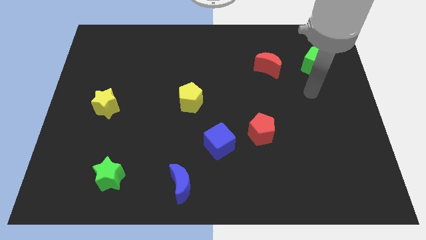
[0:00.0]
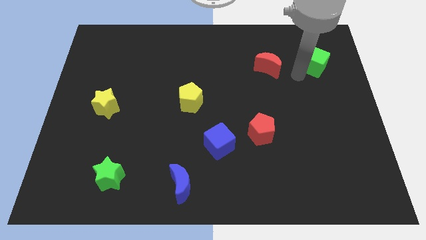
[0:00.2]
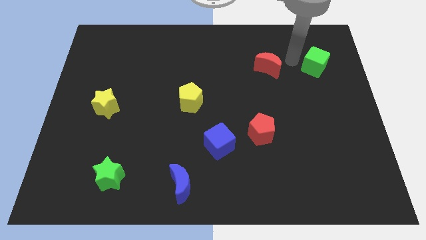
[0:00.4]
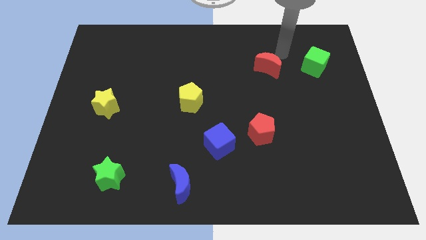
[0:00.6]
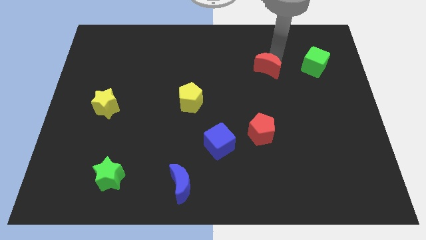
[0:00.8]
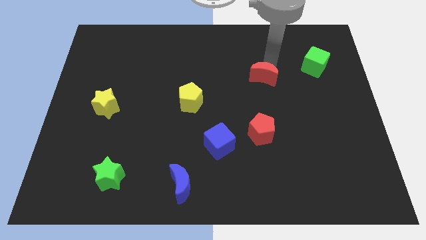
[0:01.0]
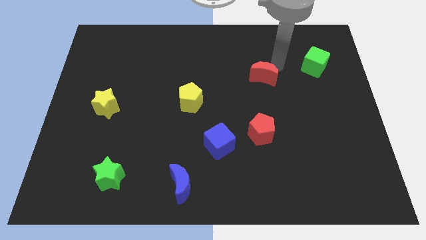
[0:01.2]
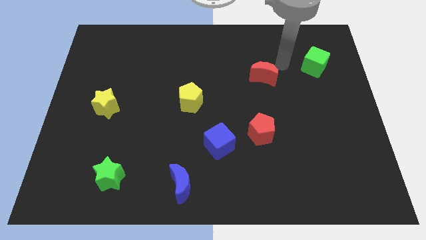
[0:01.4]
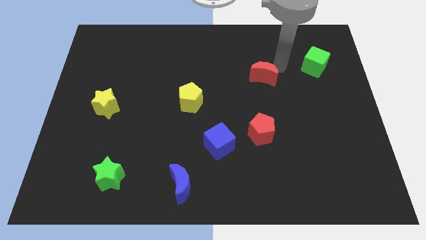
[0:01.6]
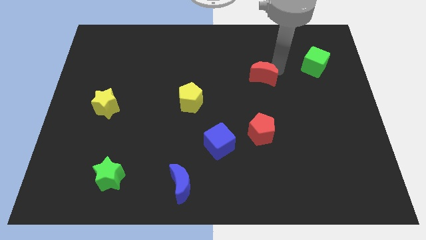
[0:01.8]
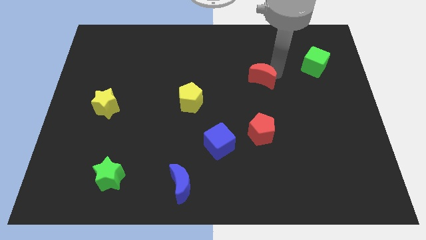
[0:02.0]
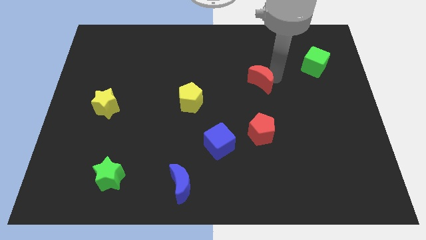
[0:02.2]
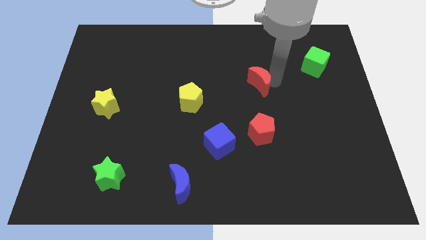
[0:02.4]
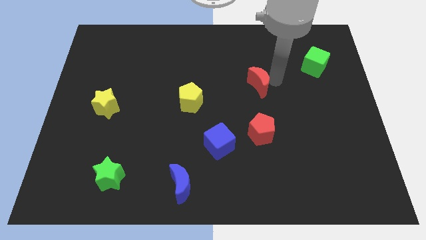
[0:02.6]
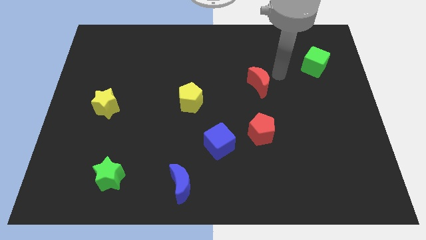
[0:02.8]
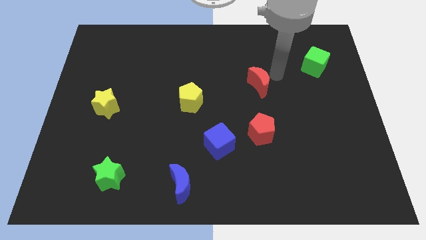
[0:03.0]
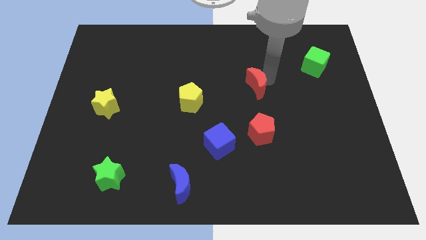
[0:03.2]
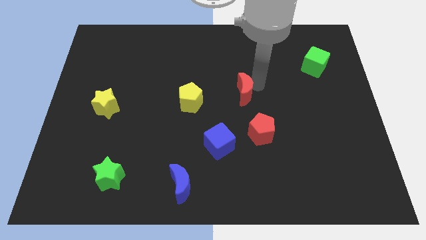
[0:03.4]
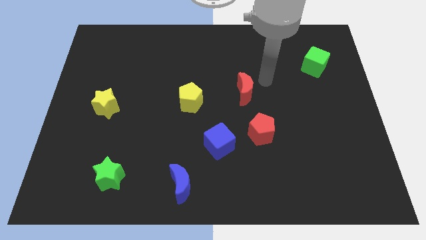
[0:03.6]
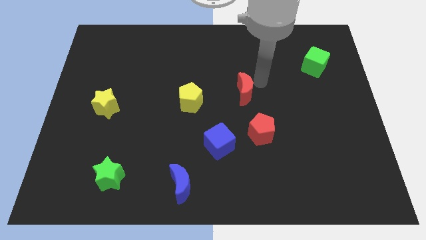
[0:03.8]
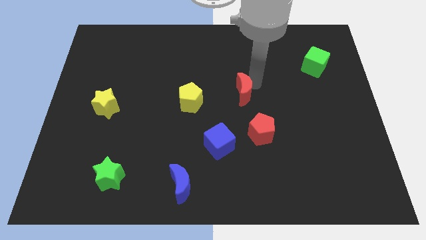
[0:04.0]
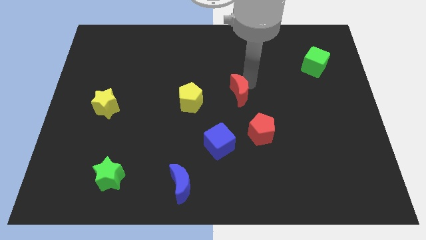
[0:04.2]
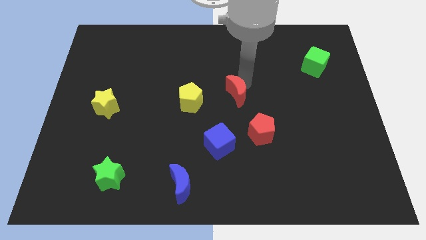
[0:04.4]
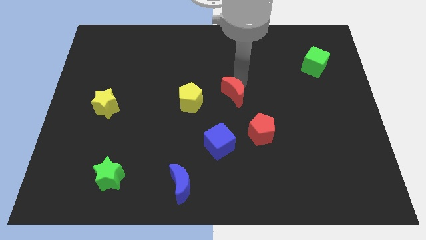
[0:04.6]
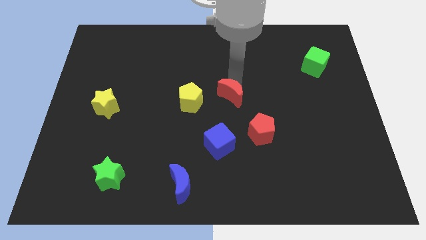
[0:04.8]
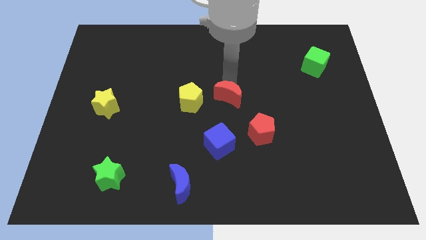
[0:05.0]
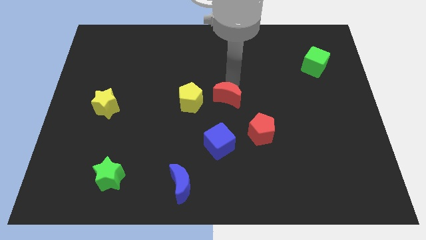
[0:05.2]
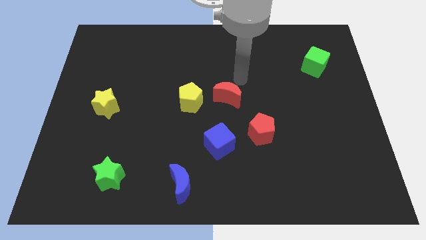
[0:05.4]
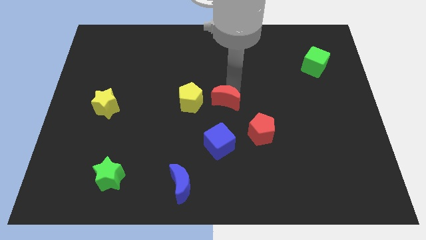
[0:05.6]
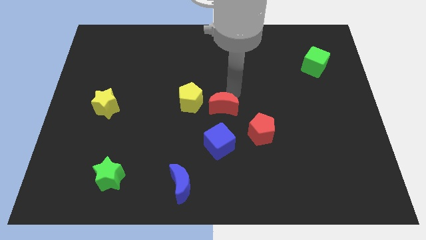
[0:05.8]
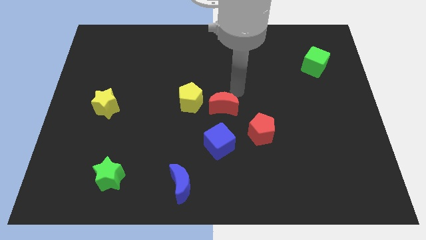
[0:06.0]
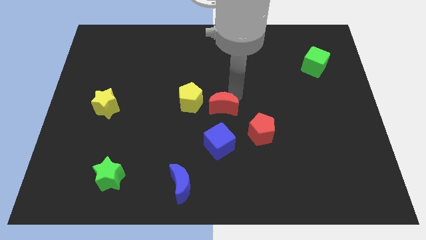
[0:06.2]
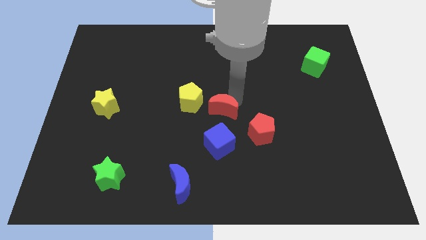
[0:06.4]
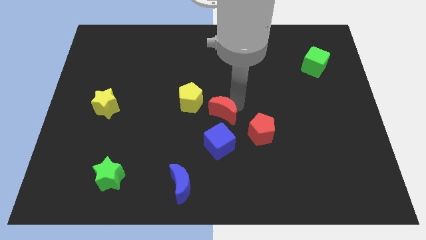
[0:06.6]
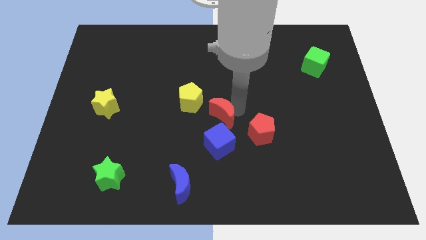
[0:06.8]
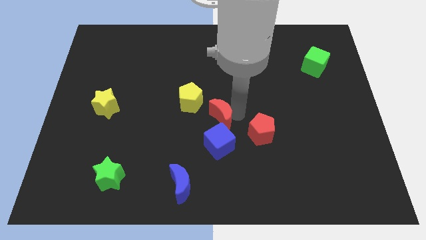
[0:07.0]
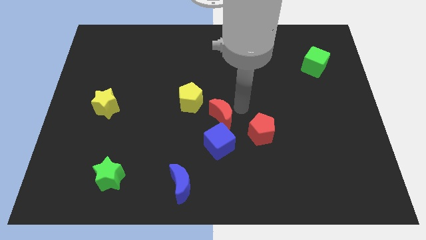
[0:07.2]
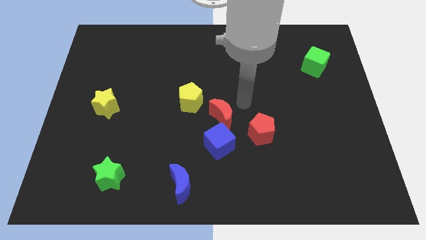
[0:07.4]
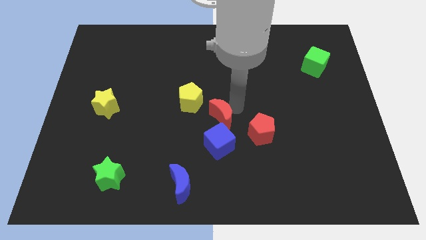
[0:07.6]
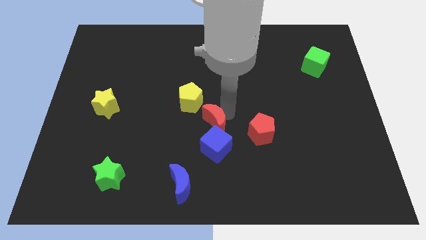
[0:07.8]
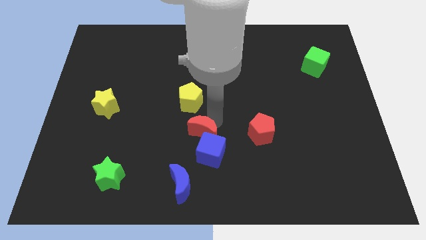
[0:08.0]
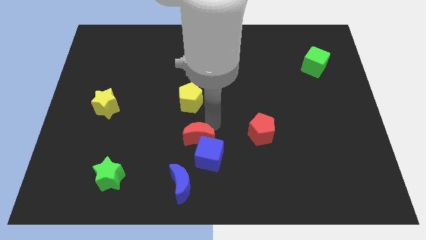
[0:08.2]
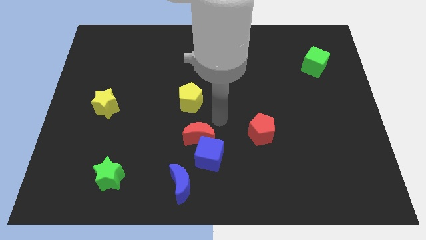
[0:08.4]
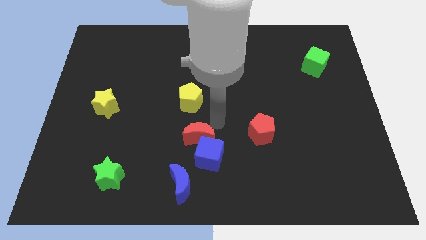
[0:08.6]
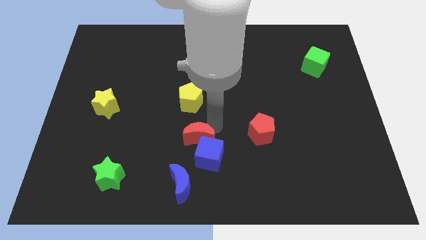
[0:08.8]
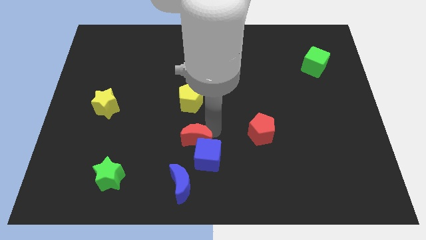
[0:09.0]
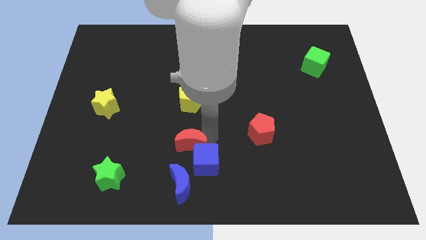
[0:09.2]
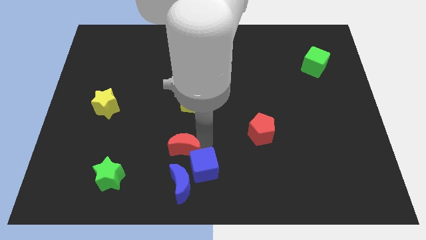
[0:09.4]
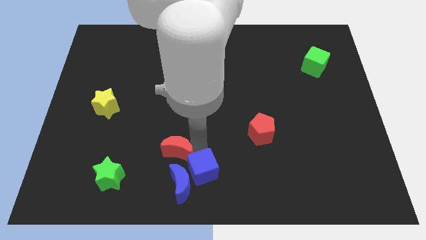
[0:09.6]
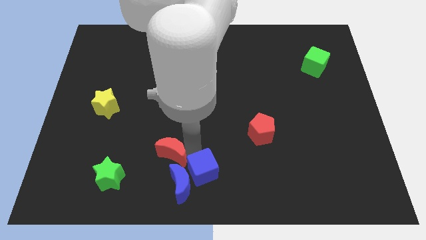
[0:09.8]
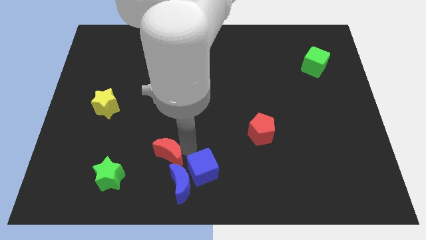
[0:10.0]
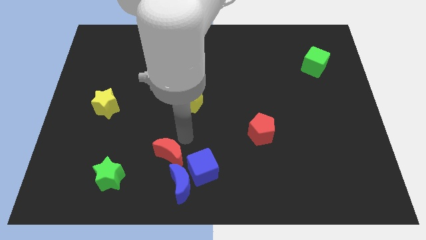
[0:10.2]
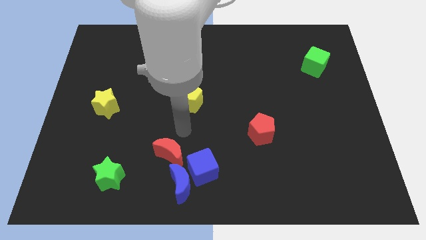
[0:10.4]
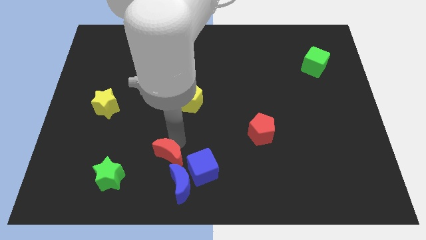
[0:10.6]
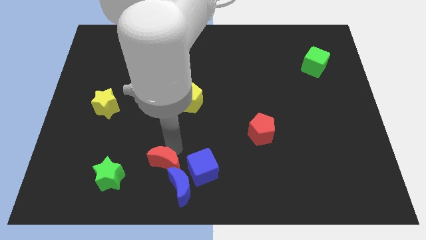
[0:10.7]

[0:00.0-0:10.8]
slide the red moon to the right of the green star

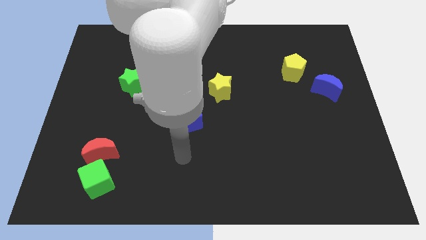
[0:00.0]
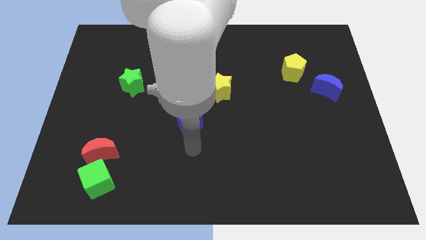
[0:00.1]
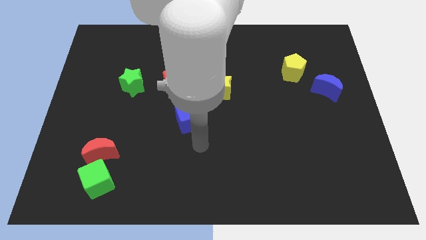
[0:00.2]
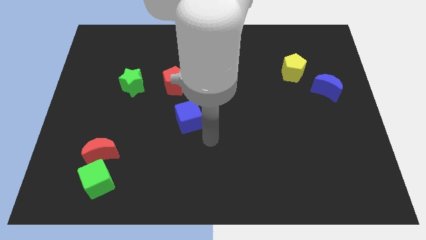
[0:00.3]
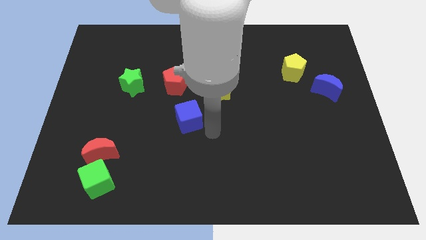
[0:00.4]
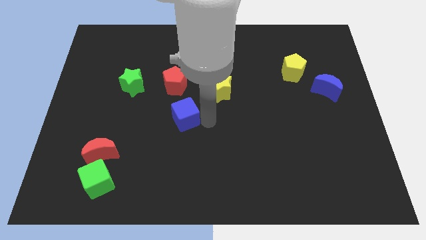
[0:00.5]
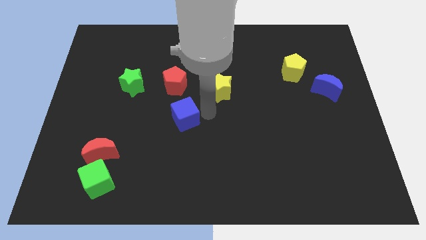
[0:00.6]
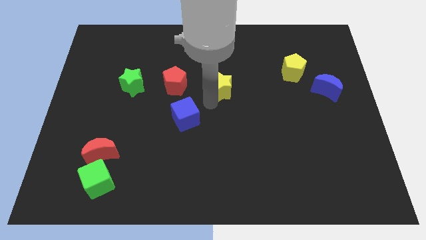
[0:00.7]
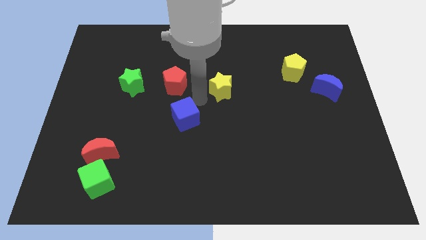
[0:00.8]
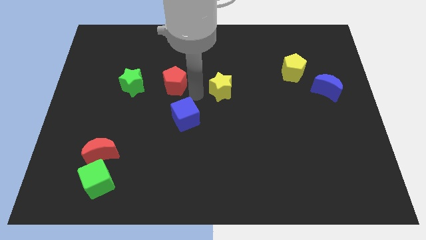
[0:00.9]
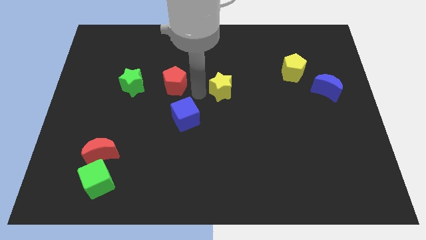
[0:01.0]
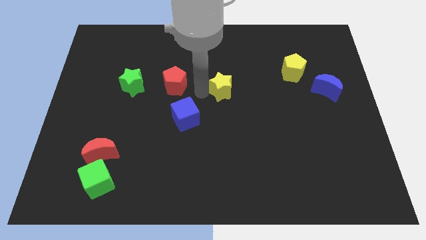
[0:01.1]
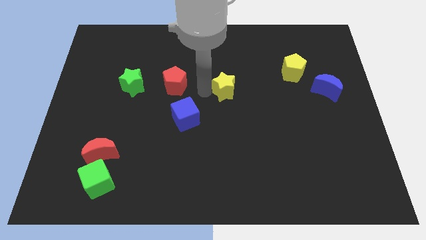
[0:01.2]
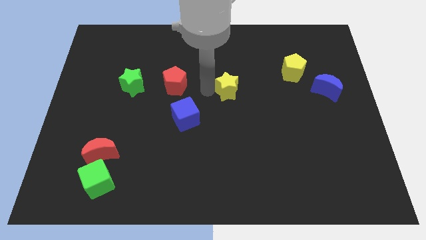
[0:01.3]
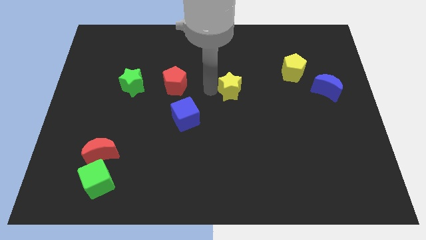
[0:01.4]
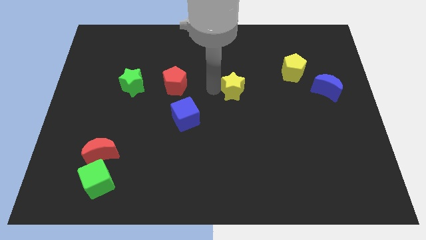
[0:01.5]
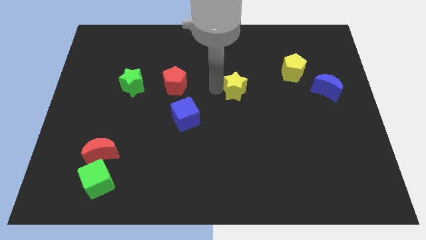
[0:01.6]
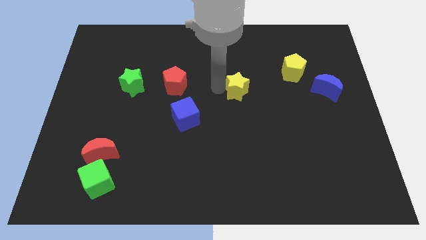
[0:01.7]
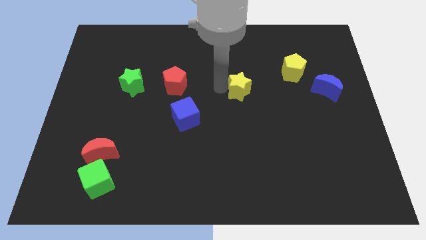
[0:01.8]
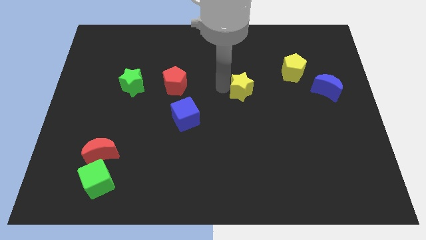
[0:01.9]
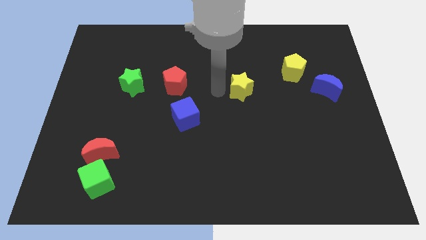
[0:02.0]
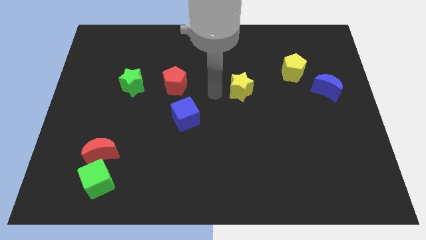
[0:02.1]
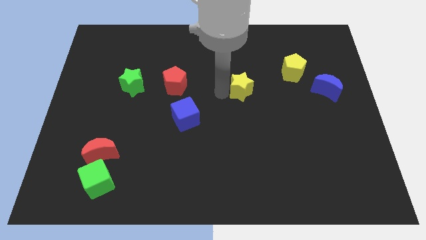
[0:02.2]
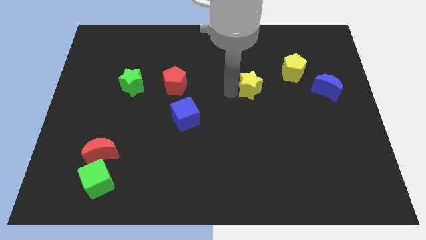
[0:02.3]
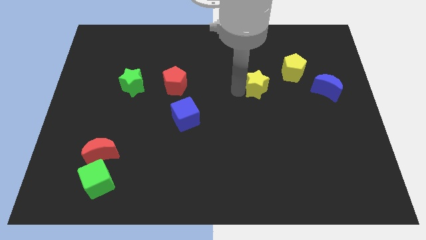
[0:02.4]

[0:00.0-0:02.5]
put the yellow star to the bottom left side of the yellow pentagon
